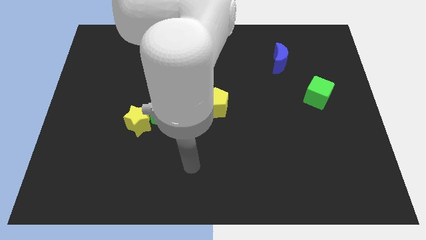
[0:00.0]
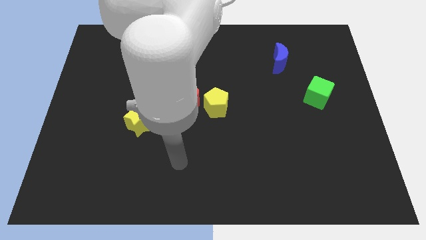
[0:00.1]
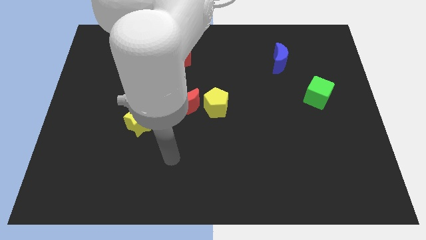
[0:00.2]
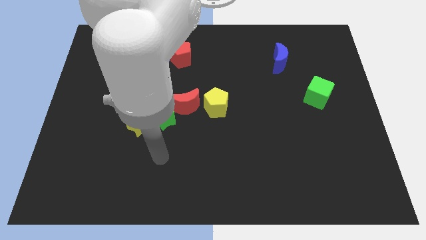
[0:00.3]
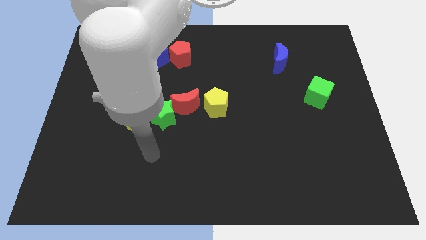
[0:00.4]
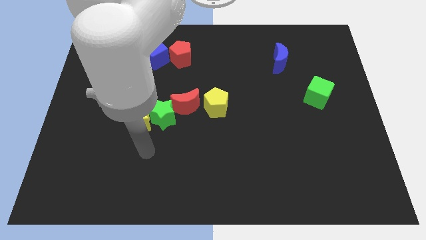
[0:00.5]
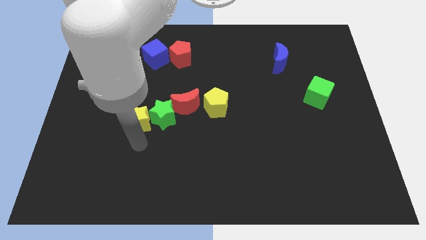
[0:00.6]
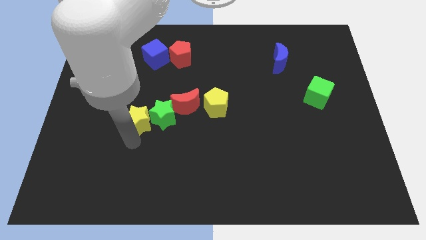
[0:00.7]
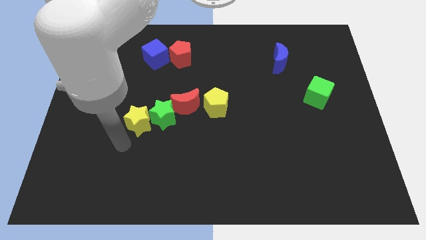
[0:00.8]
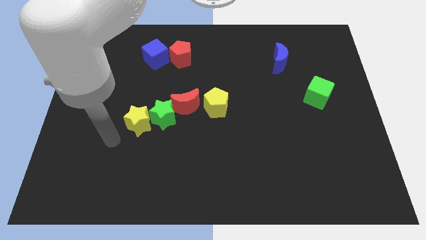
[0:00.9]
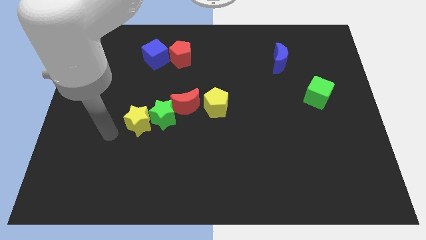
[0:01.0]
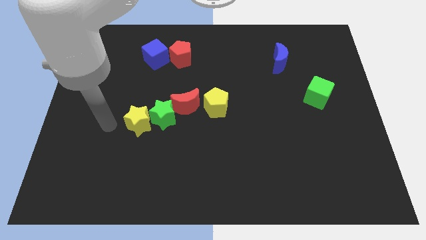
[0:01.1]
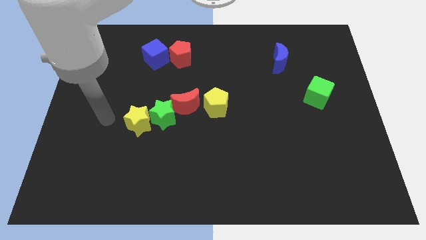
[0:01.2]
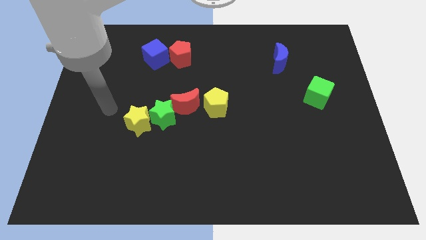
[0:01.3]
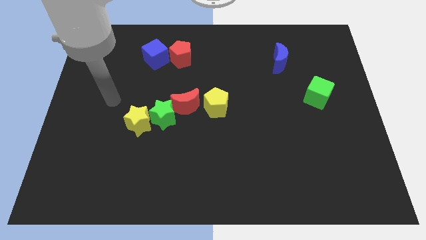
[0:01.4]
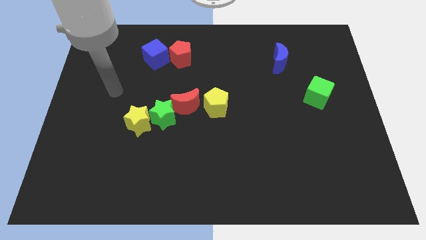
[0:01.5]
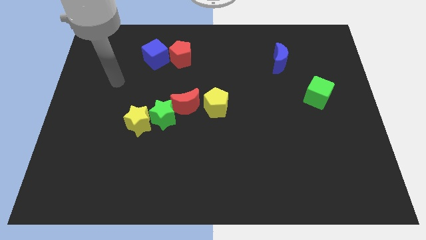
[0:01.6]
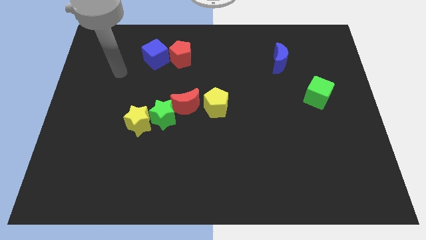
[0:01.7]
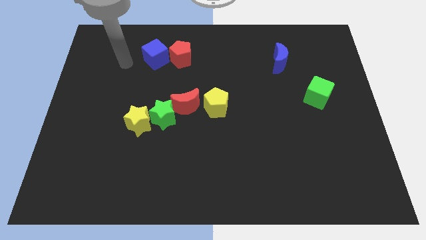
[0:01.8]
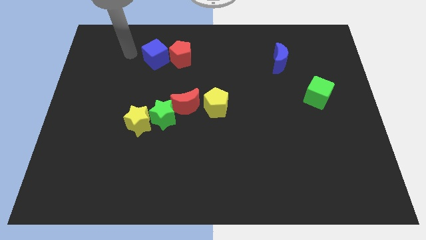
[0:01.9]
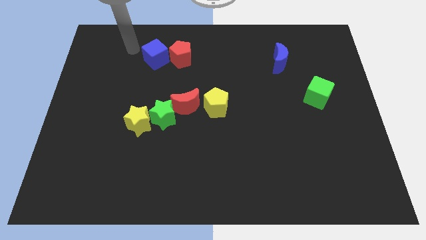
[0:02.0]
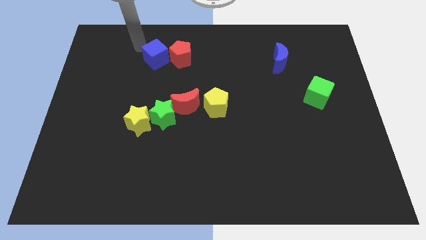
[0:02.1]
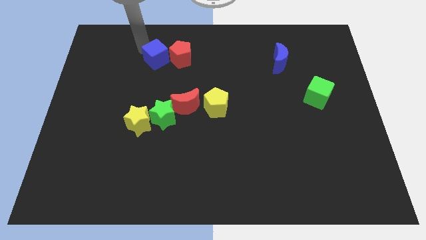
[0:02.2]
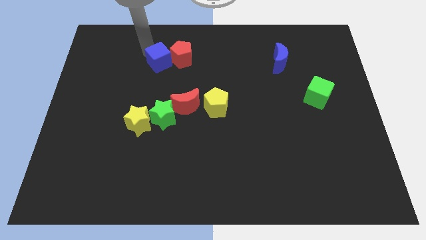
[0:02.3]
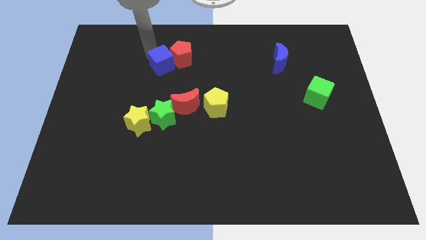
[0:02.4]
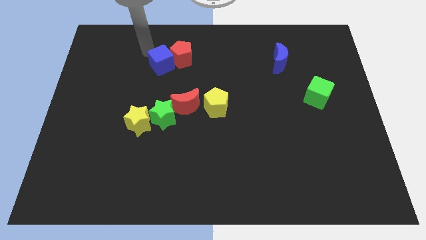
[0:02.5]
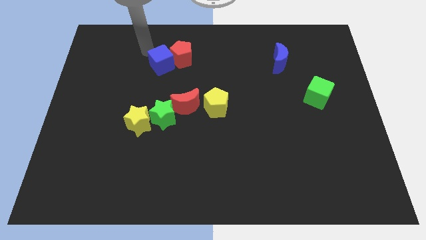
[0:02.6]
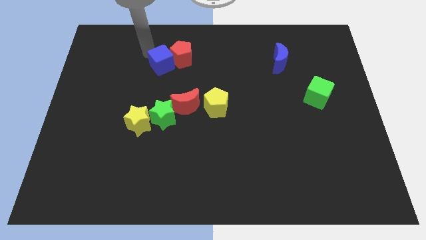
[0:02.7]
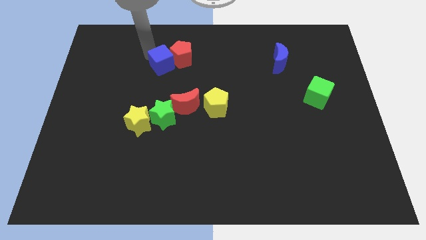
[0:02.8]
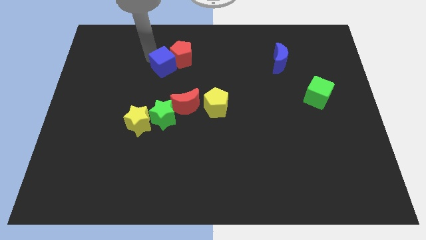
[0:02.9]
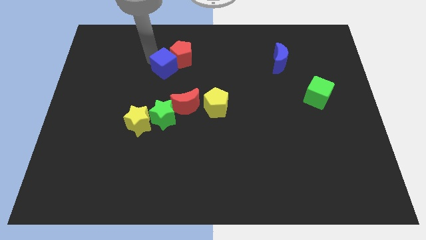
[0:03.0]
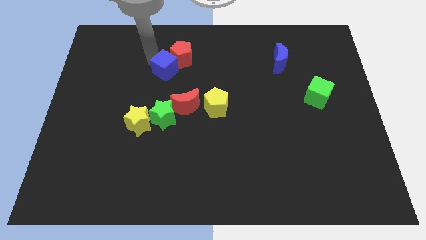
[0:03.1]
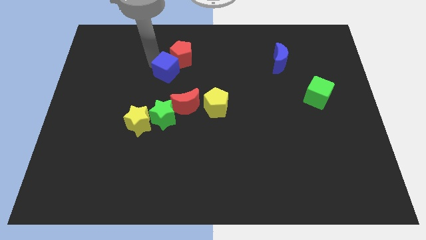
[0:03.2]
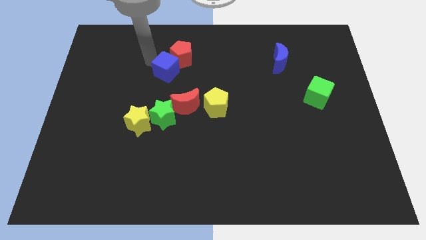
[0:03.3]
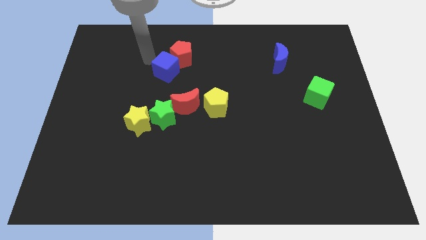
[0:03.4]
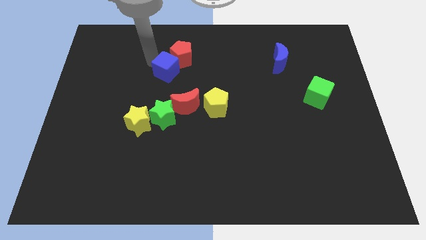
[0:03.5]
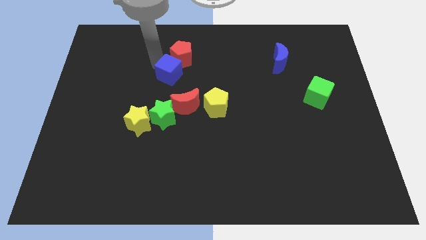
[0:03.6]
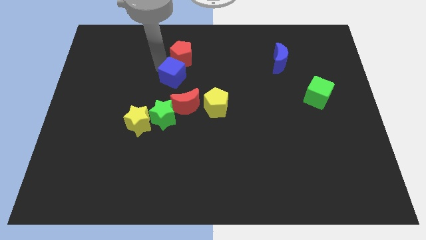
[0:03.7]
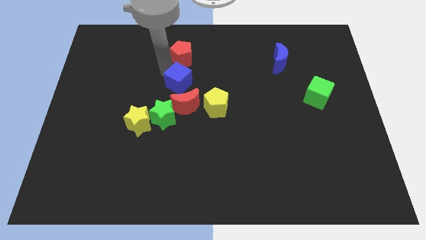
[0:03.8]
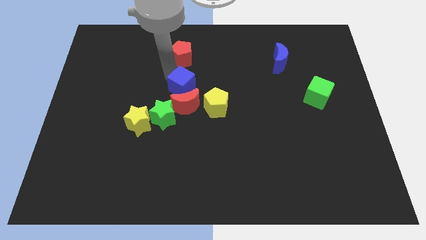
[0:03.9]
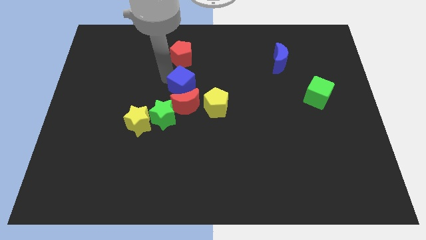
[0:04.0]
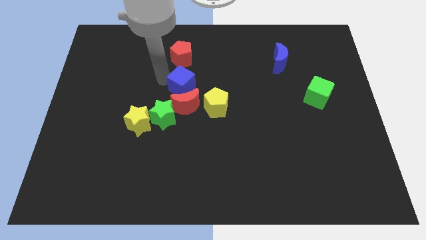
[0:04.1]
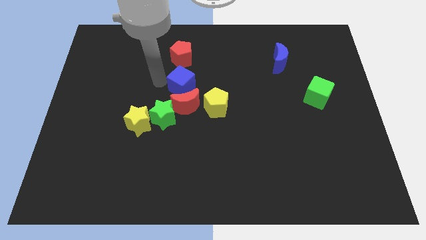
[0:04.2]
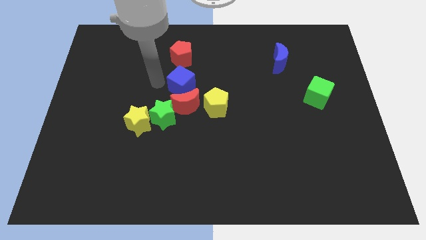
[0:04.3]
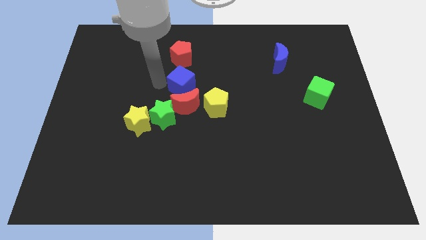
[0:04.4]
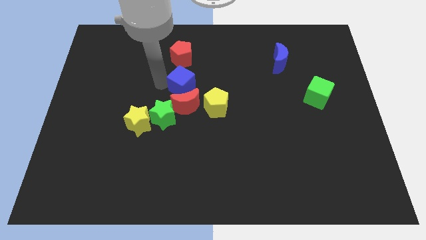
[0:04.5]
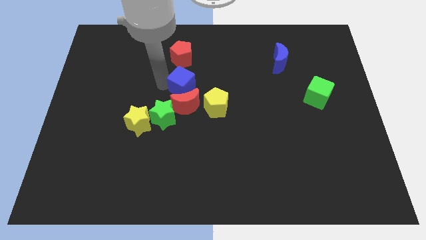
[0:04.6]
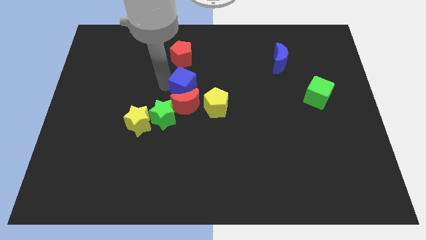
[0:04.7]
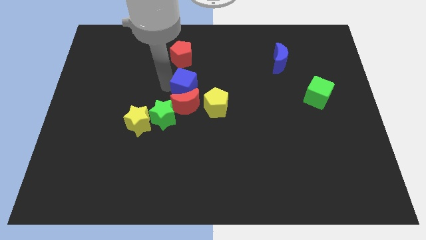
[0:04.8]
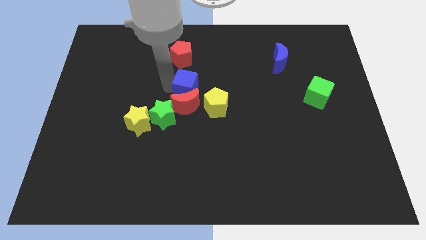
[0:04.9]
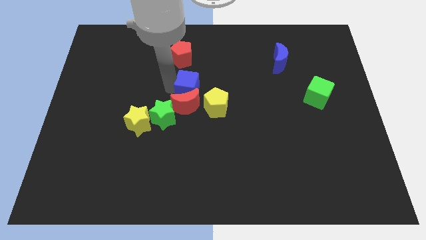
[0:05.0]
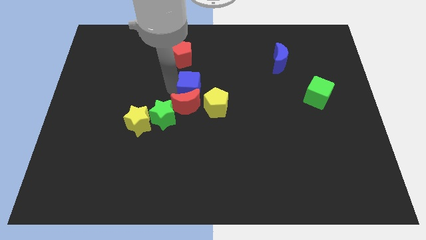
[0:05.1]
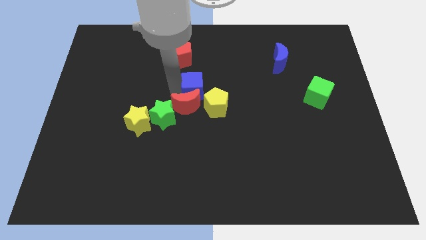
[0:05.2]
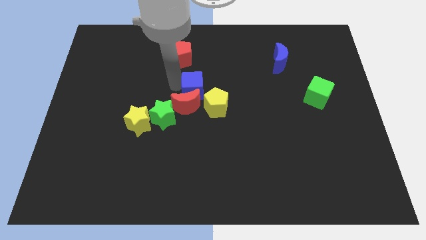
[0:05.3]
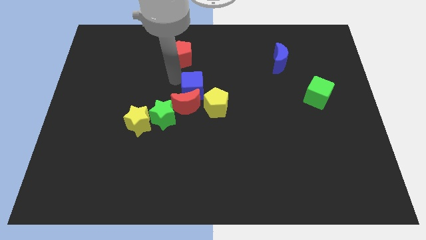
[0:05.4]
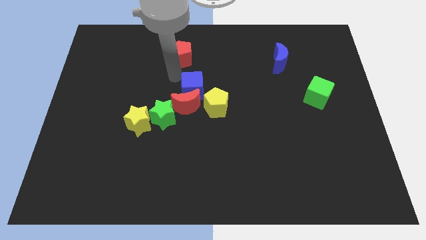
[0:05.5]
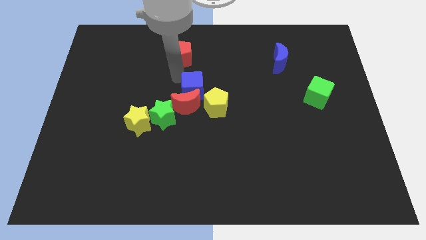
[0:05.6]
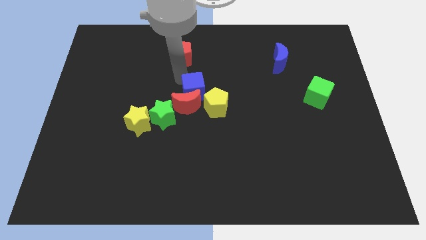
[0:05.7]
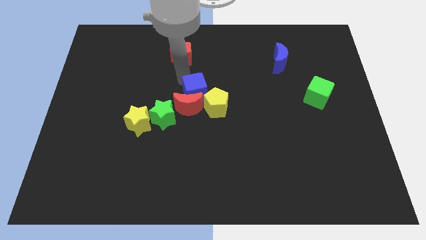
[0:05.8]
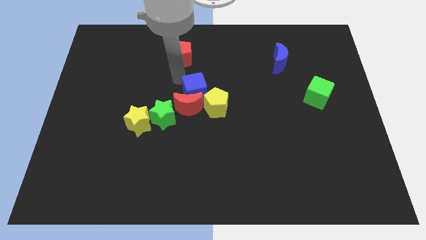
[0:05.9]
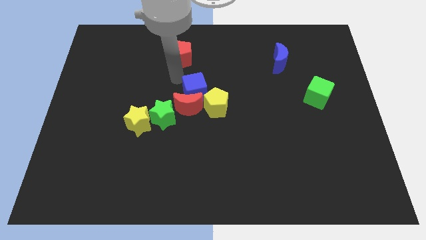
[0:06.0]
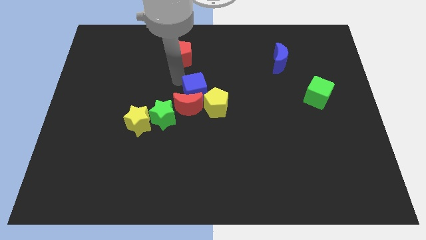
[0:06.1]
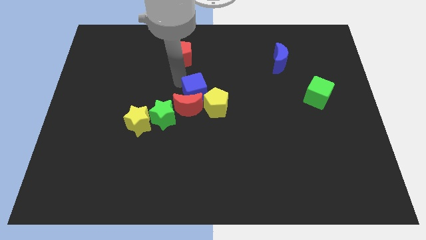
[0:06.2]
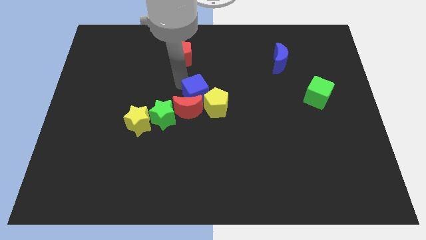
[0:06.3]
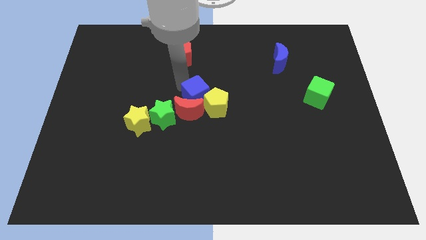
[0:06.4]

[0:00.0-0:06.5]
push the blue cube next to the yellow pentagon
